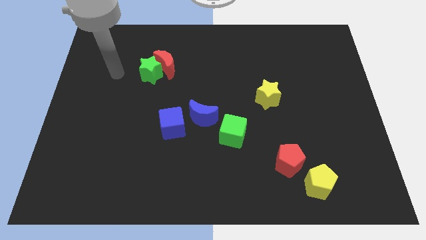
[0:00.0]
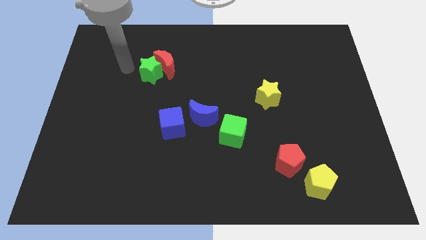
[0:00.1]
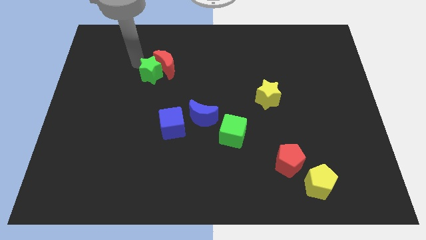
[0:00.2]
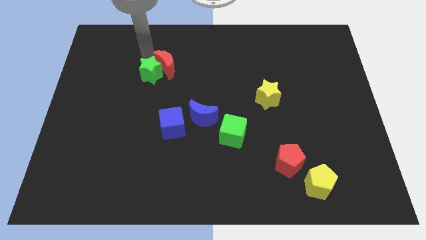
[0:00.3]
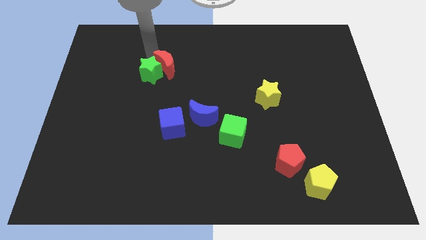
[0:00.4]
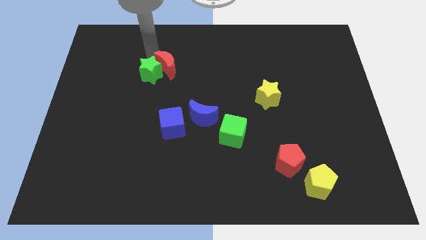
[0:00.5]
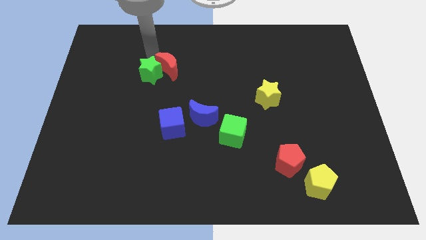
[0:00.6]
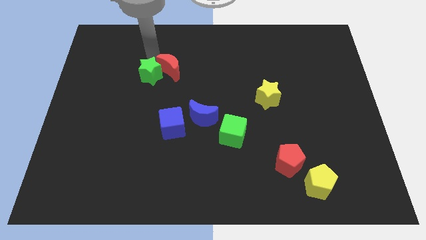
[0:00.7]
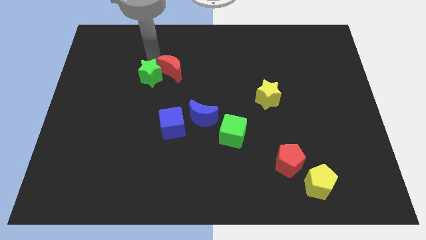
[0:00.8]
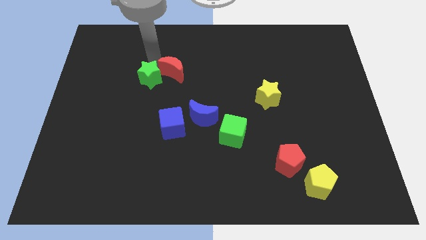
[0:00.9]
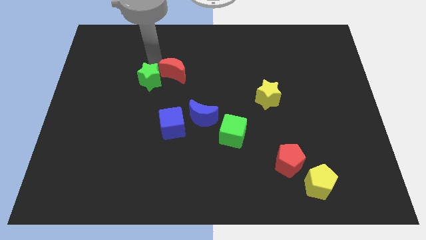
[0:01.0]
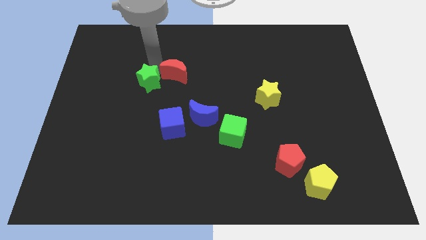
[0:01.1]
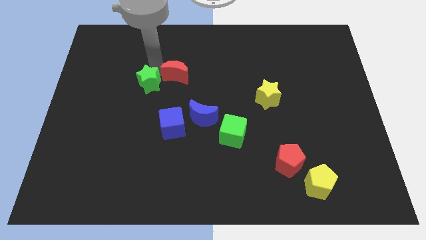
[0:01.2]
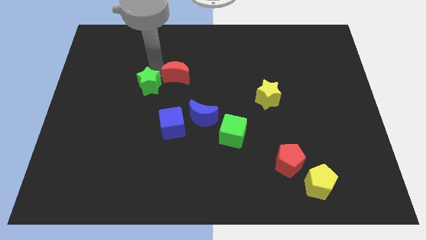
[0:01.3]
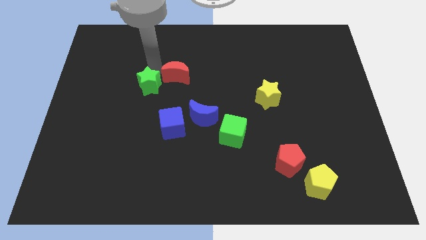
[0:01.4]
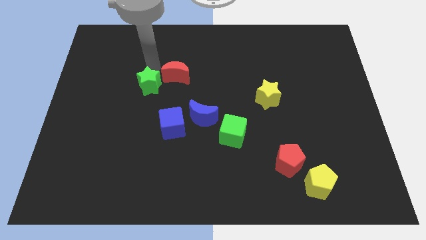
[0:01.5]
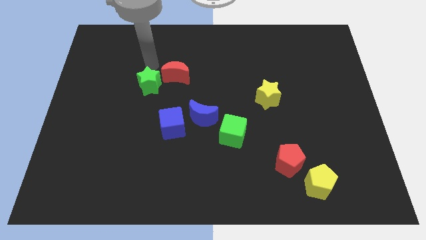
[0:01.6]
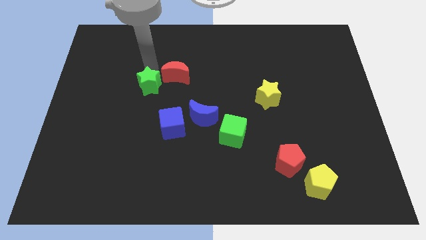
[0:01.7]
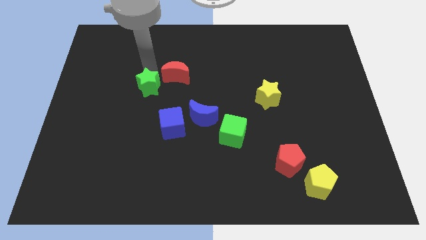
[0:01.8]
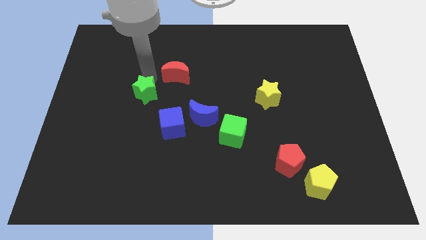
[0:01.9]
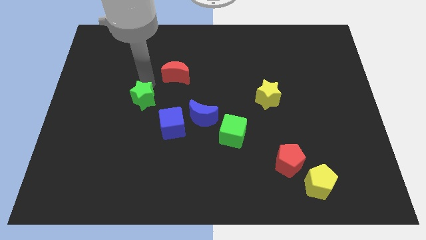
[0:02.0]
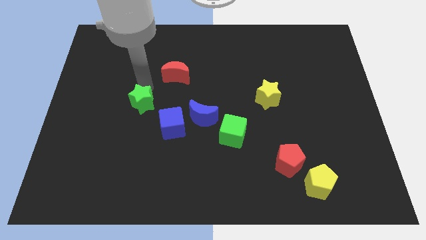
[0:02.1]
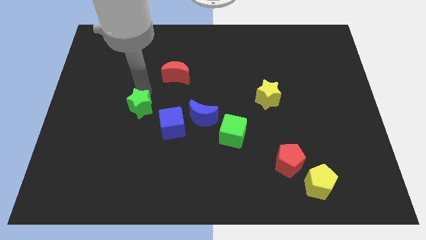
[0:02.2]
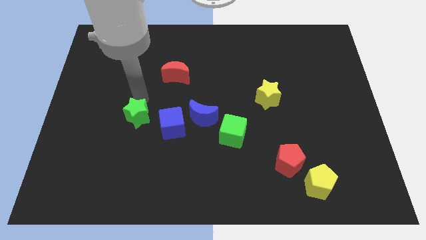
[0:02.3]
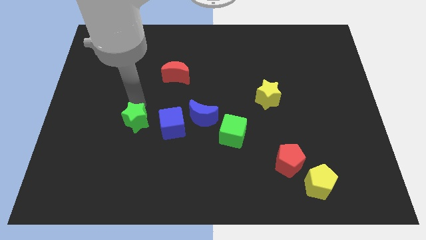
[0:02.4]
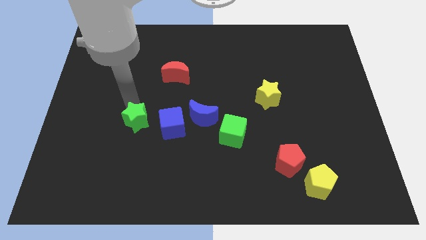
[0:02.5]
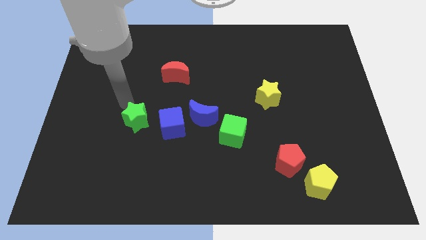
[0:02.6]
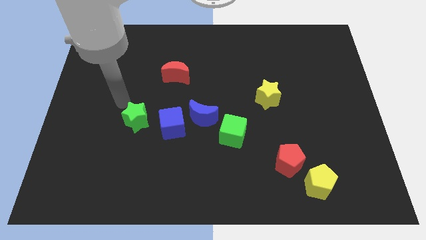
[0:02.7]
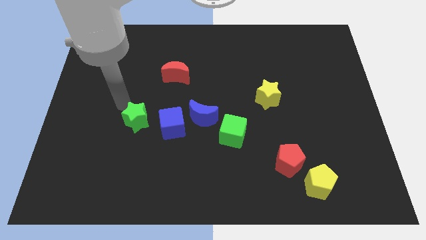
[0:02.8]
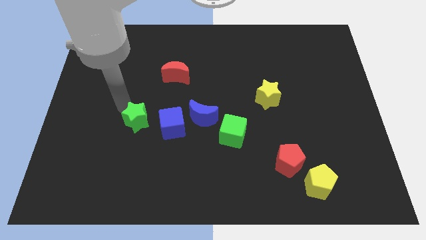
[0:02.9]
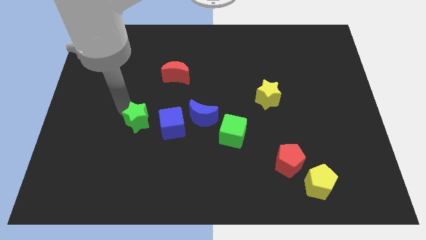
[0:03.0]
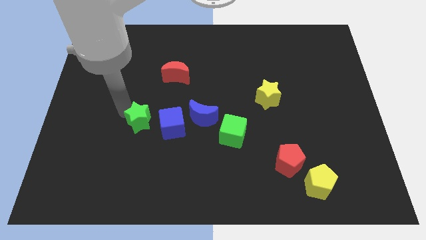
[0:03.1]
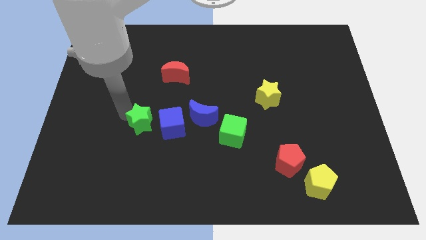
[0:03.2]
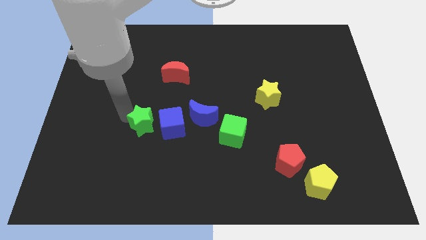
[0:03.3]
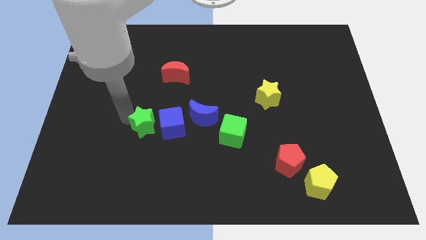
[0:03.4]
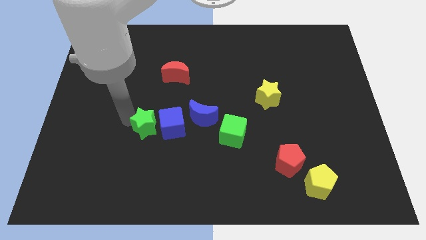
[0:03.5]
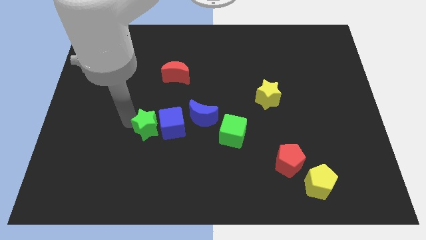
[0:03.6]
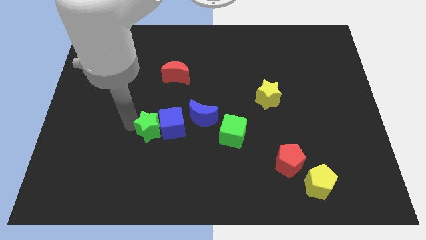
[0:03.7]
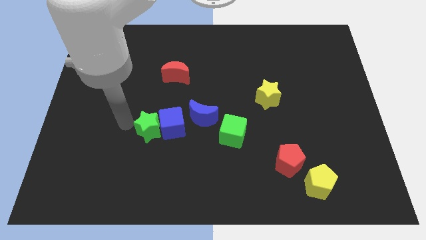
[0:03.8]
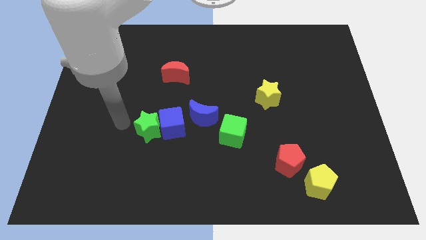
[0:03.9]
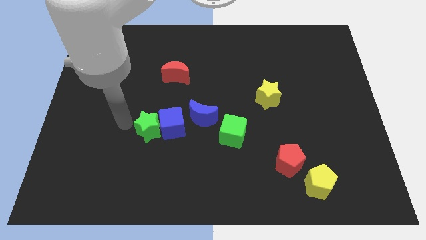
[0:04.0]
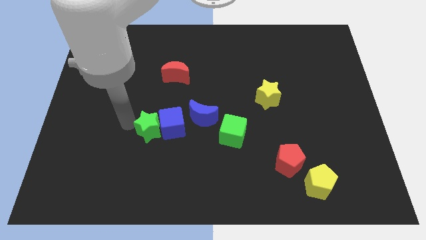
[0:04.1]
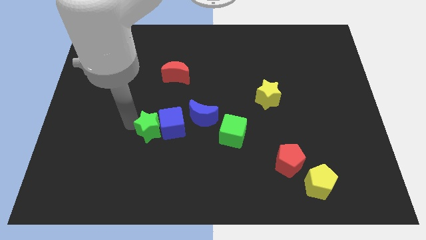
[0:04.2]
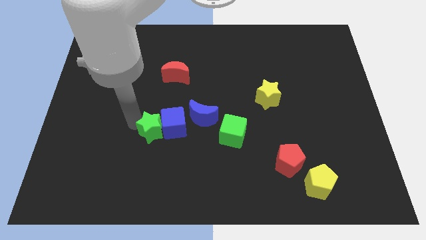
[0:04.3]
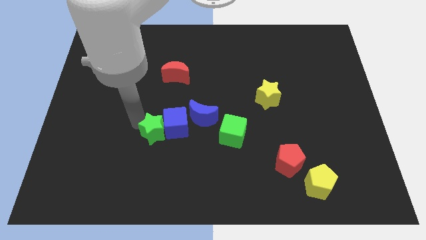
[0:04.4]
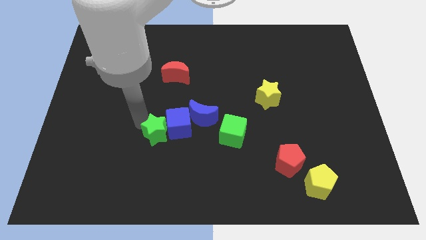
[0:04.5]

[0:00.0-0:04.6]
push the green star to the bottom left of the blue moon

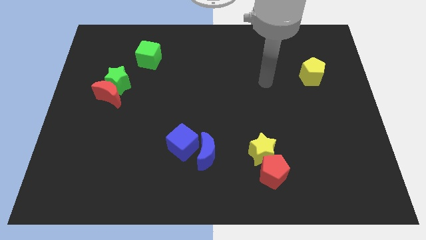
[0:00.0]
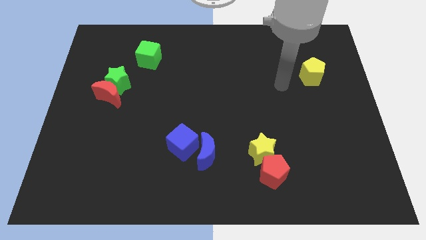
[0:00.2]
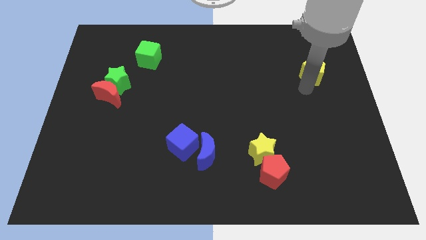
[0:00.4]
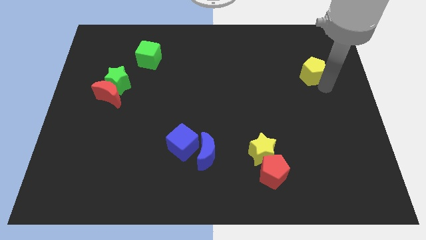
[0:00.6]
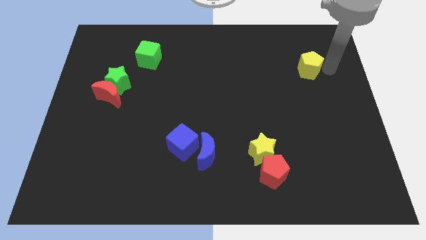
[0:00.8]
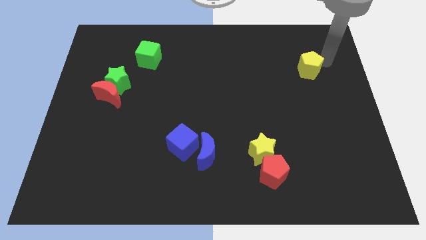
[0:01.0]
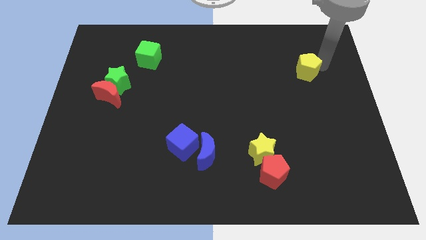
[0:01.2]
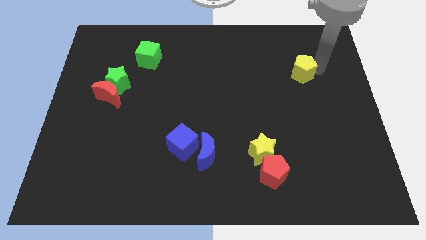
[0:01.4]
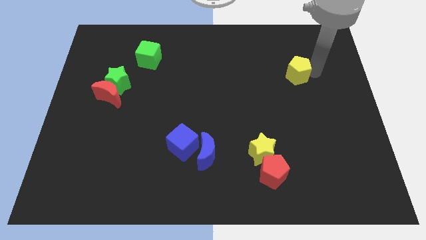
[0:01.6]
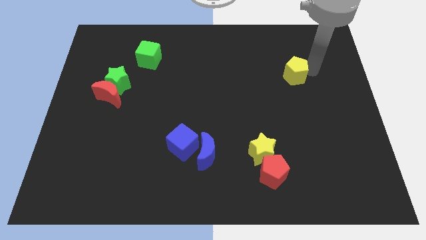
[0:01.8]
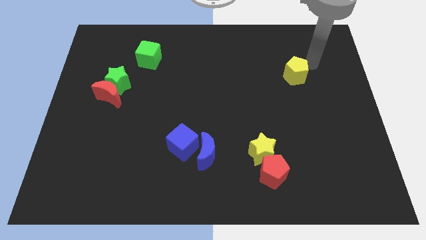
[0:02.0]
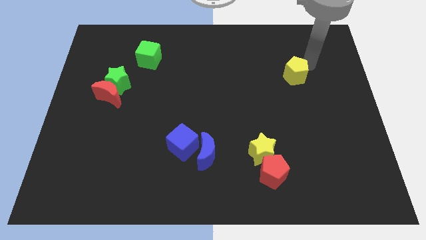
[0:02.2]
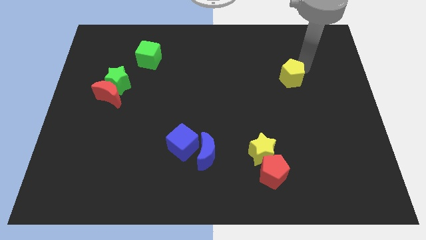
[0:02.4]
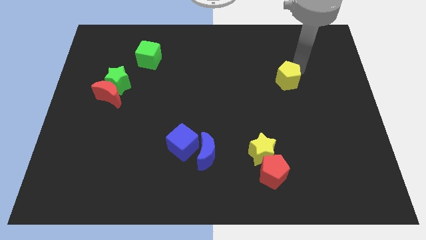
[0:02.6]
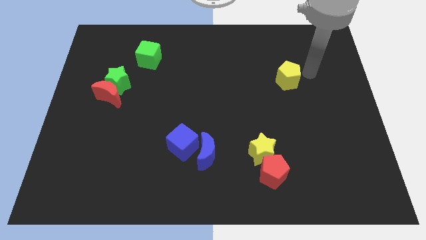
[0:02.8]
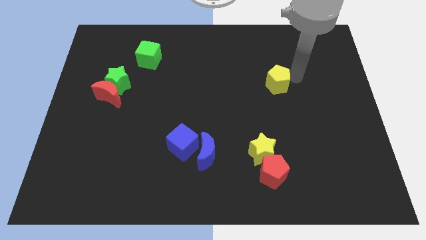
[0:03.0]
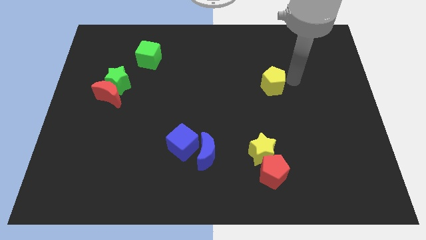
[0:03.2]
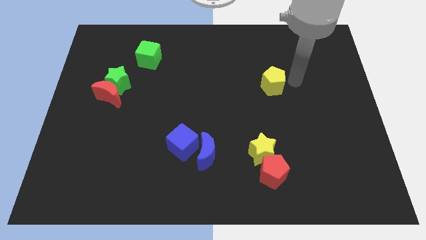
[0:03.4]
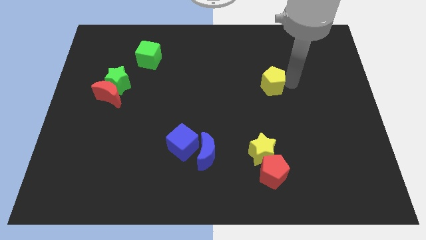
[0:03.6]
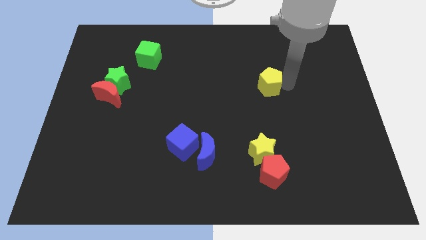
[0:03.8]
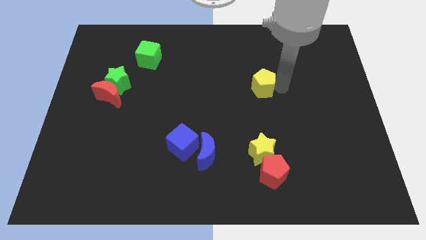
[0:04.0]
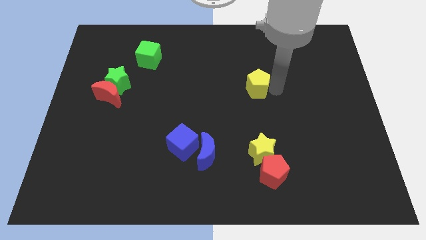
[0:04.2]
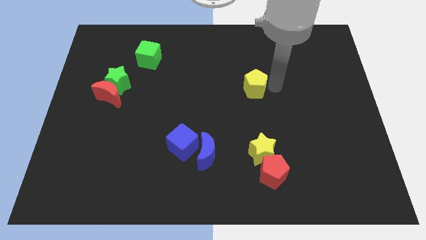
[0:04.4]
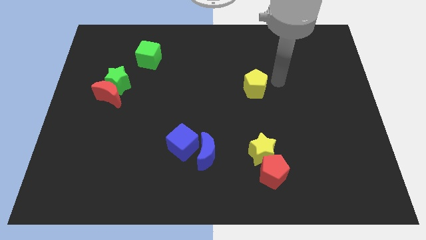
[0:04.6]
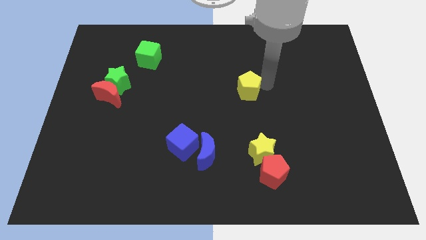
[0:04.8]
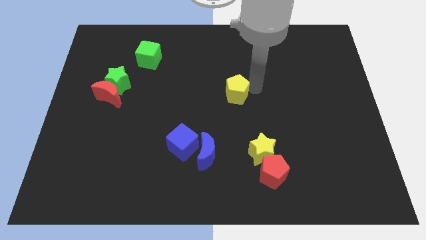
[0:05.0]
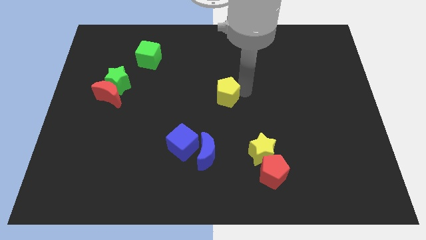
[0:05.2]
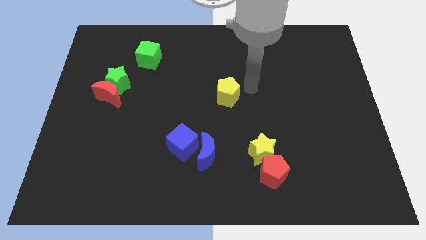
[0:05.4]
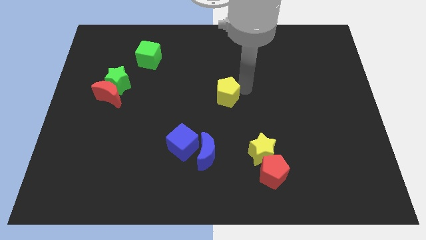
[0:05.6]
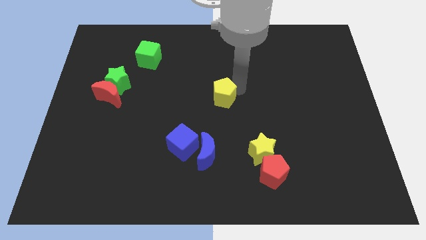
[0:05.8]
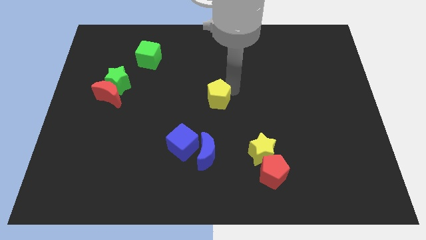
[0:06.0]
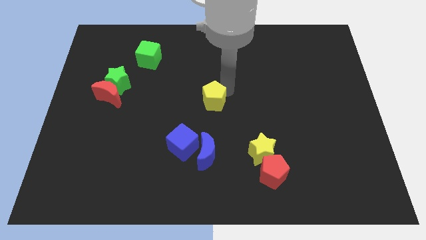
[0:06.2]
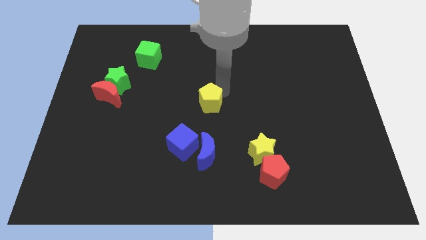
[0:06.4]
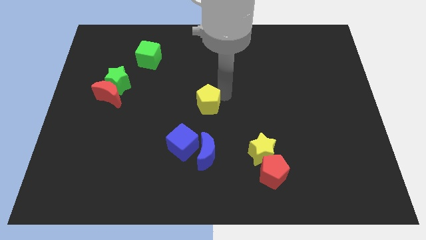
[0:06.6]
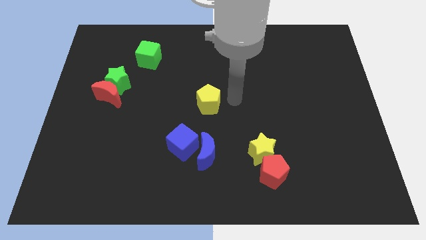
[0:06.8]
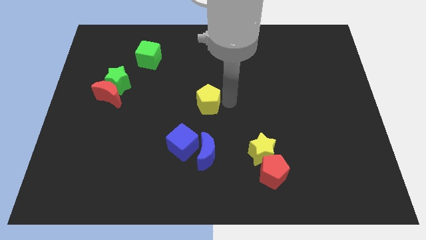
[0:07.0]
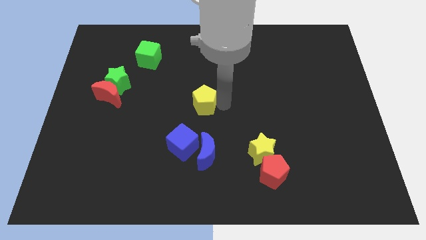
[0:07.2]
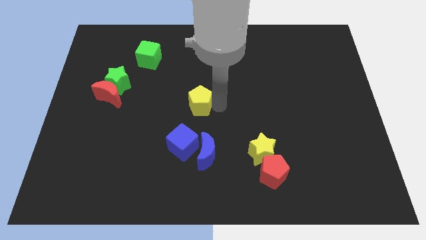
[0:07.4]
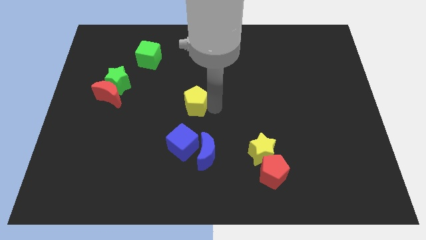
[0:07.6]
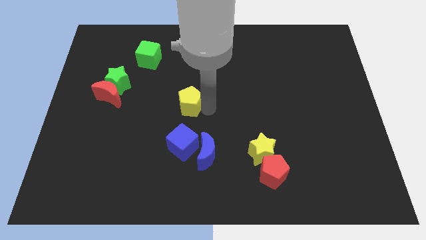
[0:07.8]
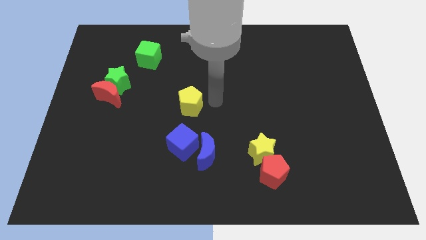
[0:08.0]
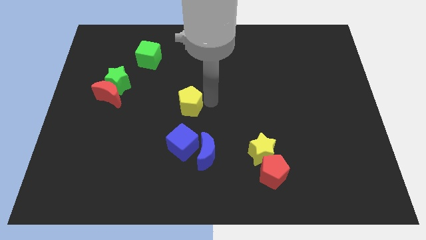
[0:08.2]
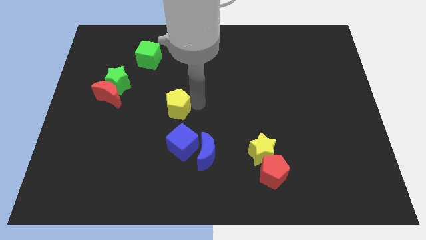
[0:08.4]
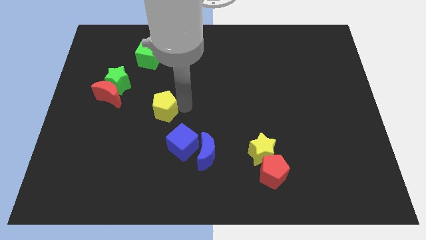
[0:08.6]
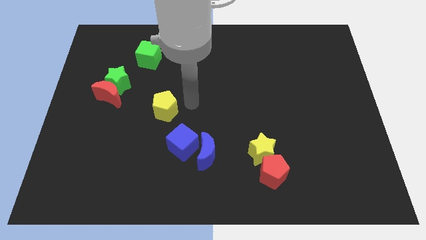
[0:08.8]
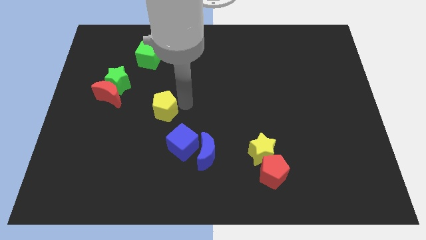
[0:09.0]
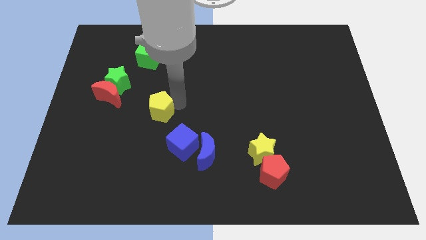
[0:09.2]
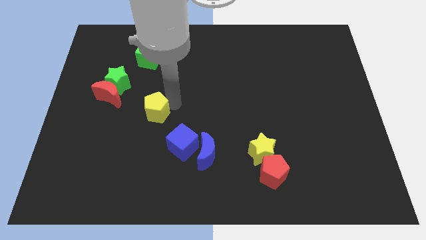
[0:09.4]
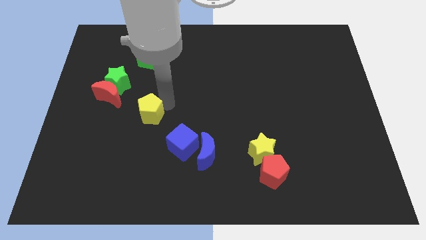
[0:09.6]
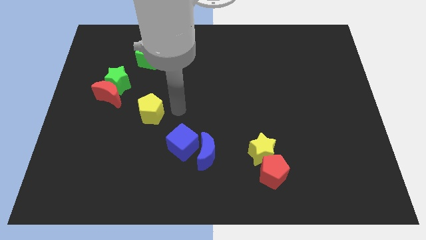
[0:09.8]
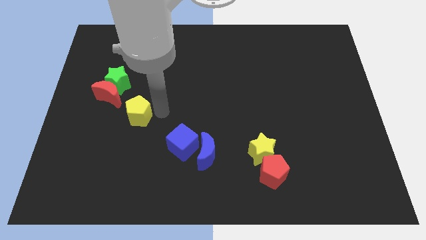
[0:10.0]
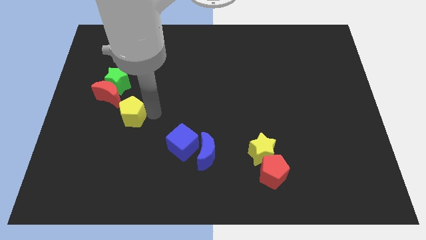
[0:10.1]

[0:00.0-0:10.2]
put the yellow pentagon to the bottom of the green star
